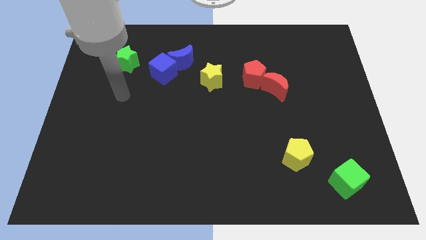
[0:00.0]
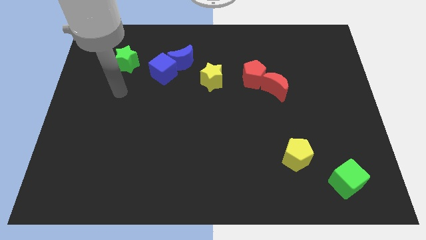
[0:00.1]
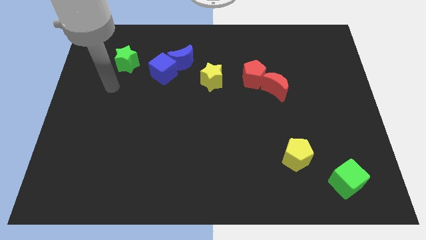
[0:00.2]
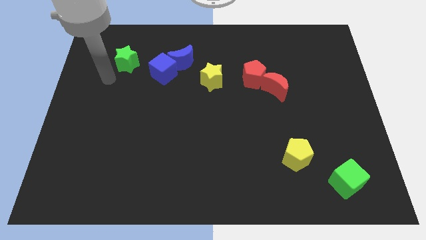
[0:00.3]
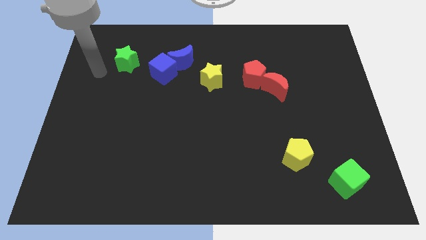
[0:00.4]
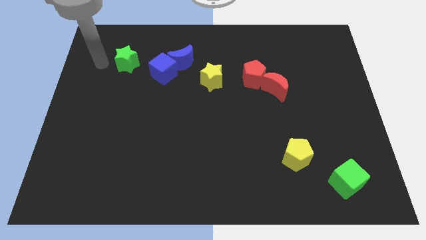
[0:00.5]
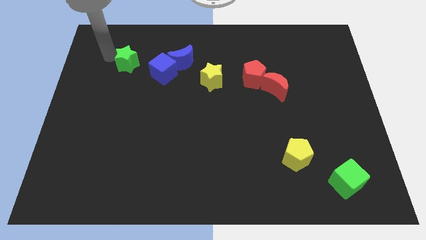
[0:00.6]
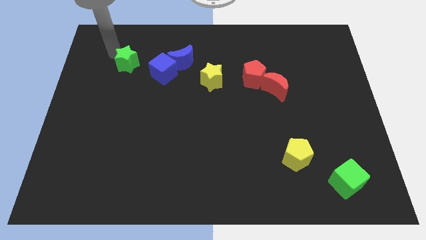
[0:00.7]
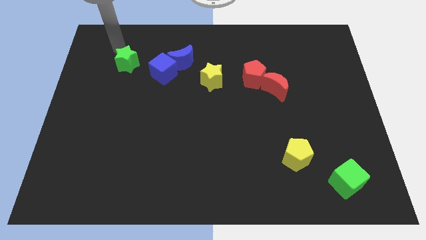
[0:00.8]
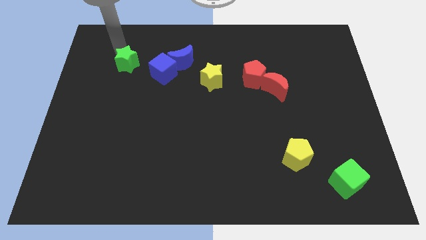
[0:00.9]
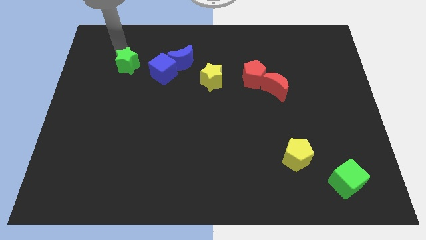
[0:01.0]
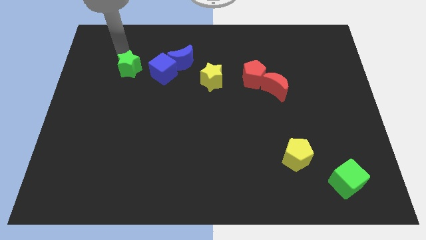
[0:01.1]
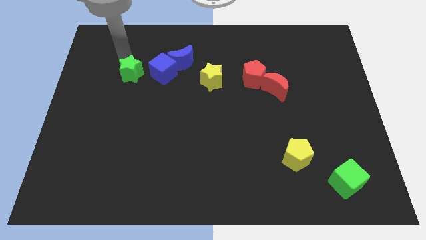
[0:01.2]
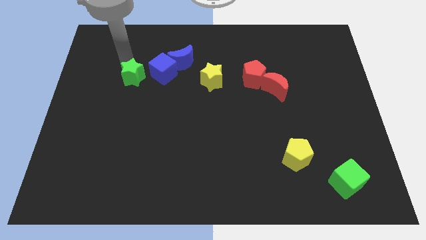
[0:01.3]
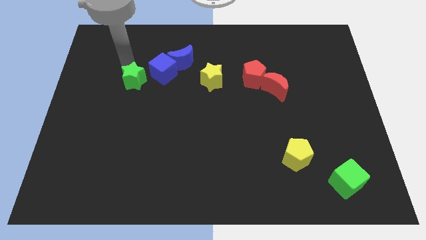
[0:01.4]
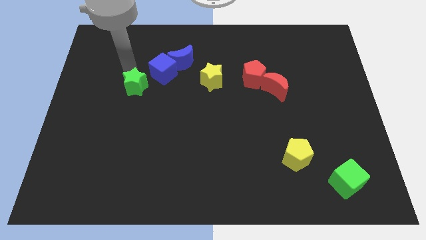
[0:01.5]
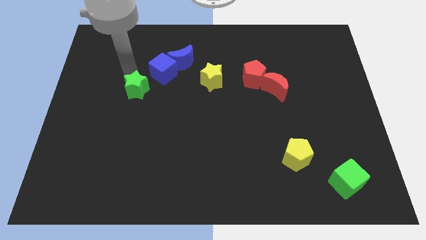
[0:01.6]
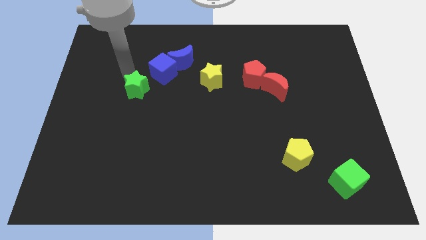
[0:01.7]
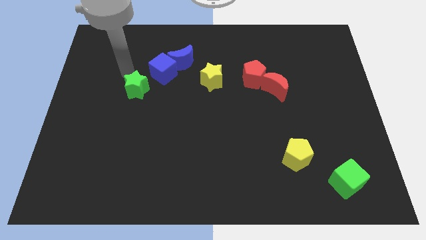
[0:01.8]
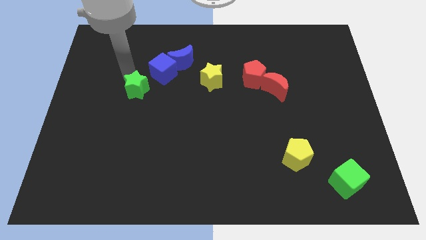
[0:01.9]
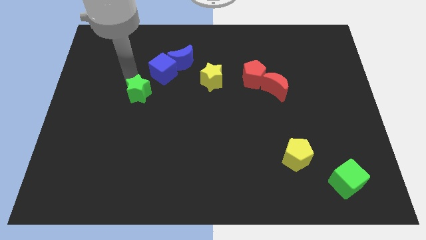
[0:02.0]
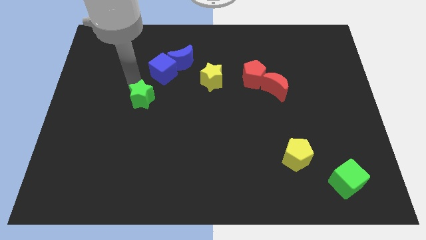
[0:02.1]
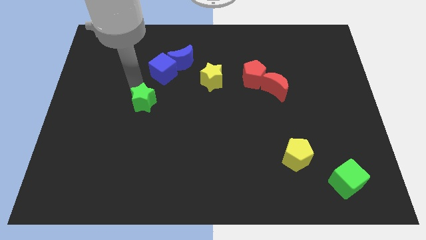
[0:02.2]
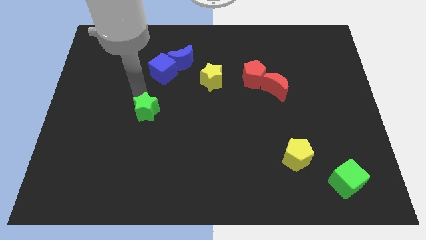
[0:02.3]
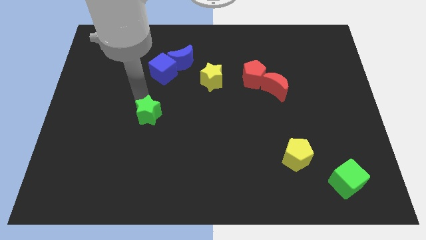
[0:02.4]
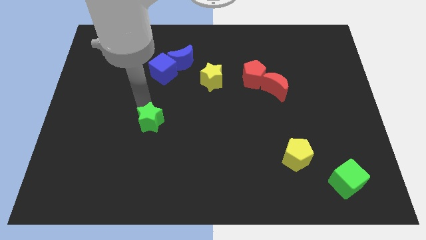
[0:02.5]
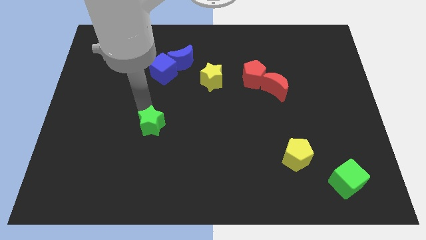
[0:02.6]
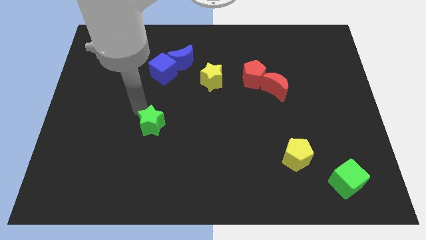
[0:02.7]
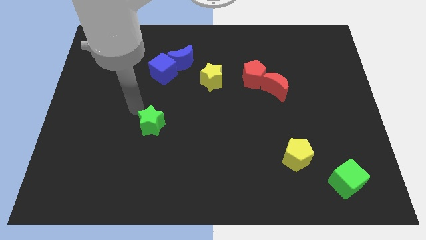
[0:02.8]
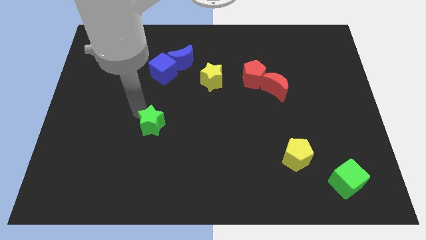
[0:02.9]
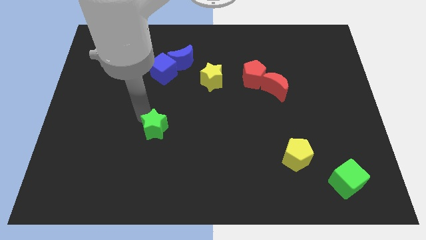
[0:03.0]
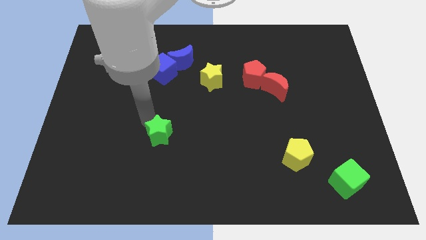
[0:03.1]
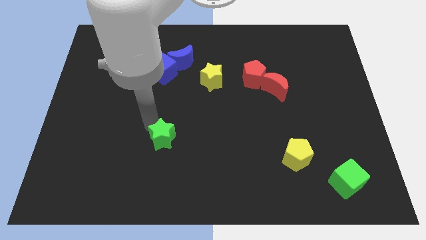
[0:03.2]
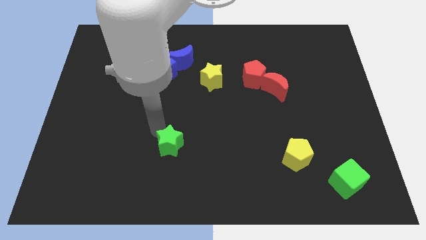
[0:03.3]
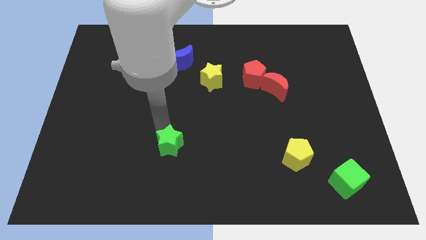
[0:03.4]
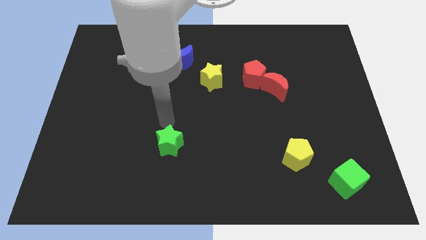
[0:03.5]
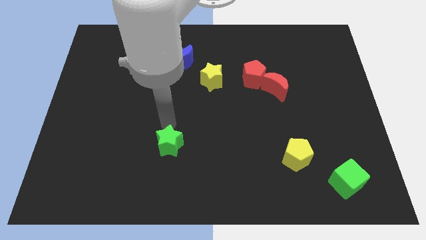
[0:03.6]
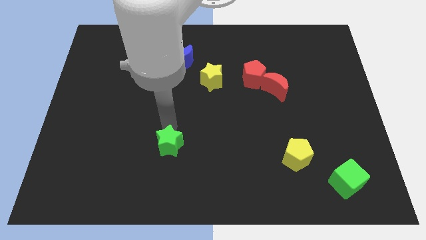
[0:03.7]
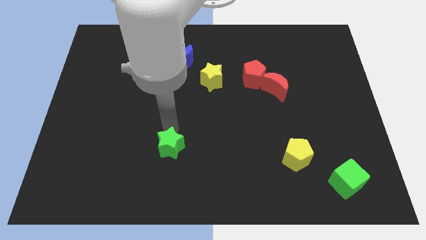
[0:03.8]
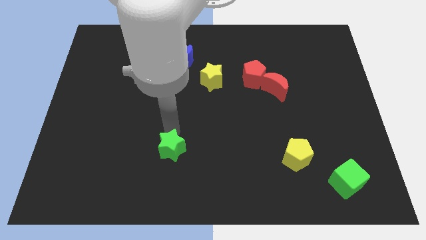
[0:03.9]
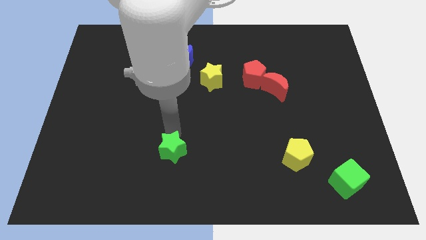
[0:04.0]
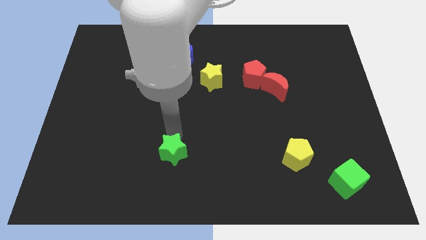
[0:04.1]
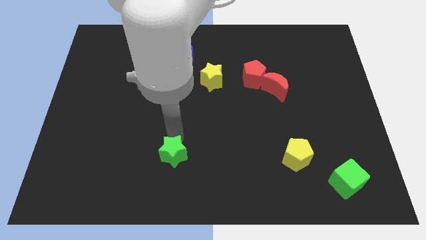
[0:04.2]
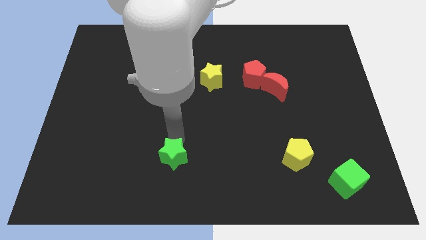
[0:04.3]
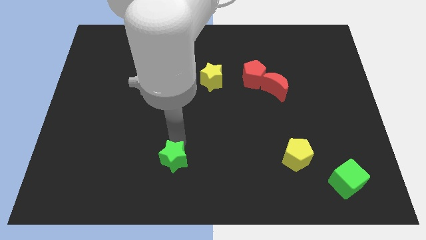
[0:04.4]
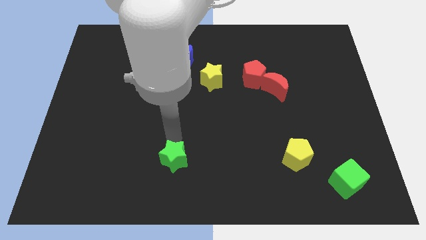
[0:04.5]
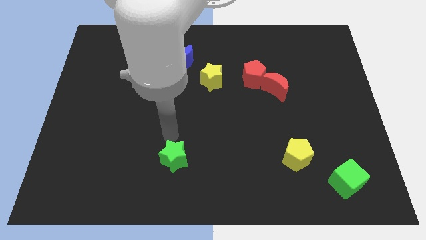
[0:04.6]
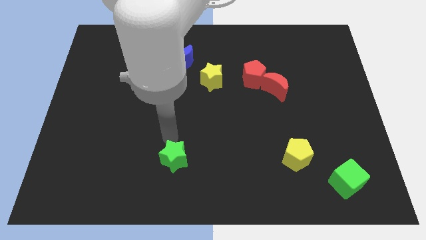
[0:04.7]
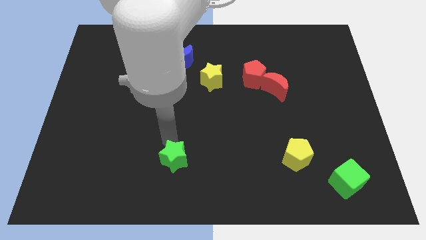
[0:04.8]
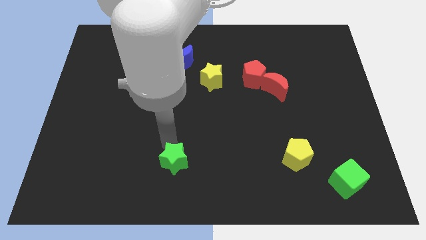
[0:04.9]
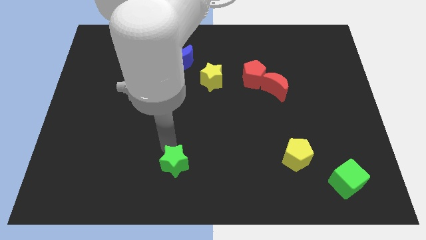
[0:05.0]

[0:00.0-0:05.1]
move the green star to the bottom side

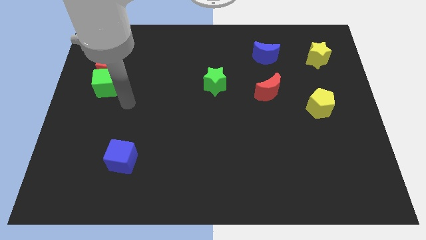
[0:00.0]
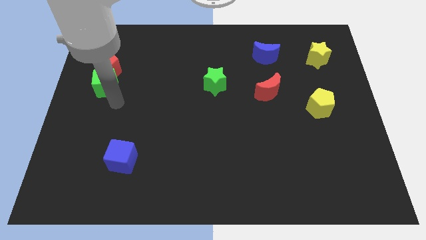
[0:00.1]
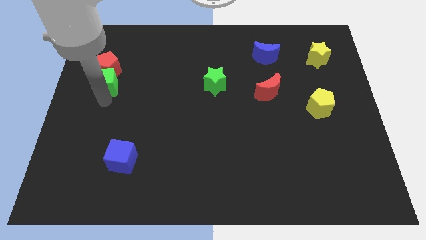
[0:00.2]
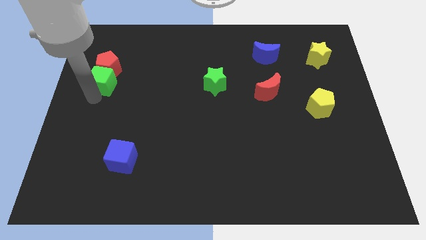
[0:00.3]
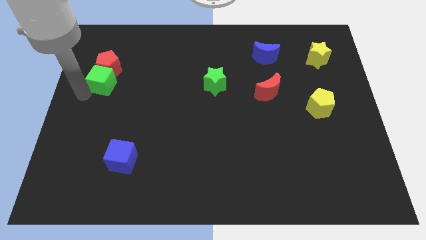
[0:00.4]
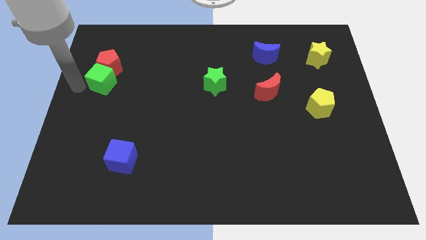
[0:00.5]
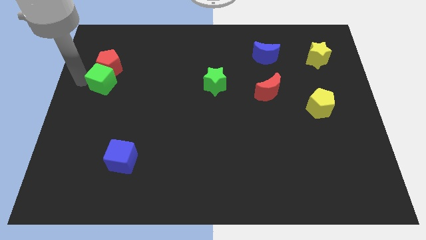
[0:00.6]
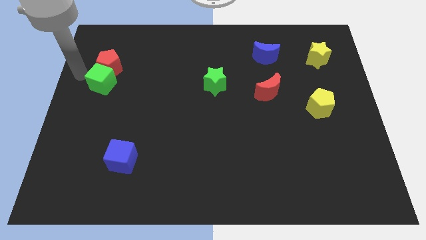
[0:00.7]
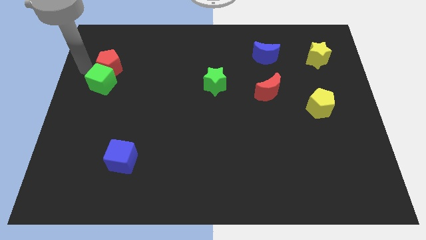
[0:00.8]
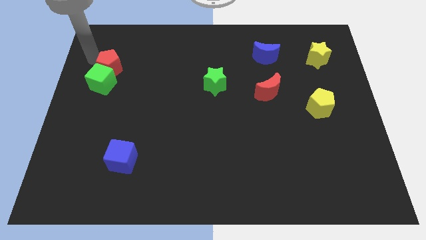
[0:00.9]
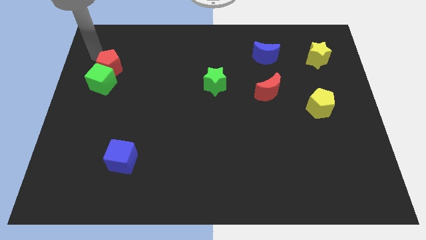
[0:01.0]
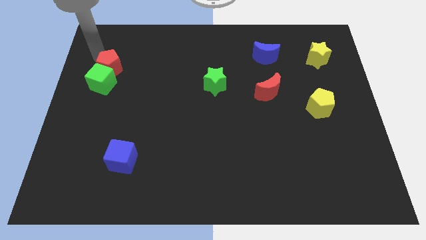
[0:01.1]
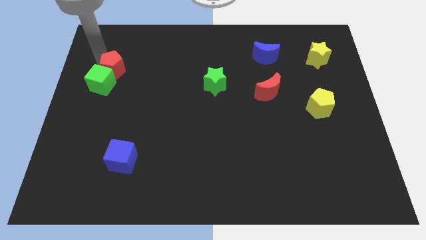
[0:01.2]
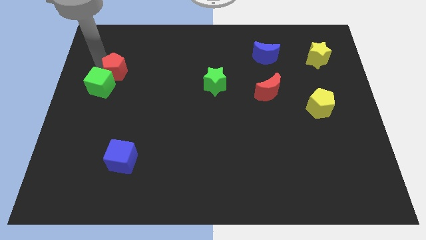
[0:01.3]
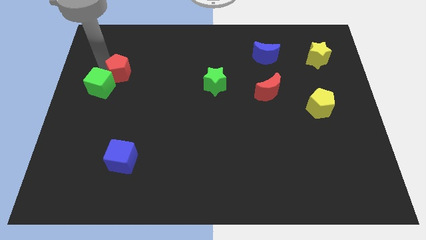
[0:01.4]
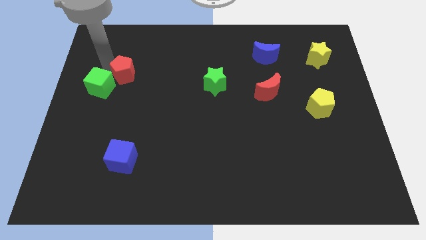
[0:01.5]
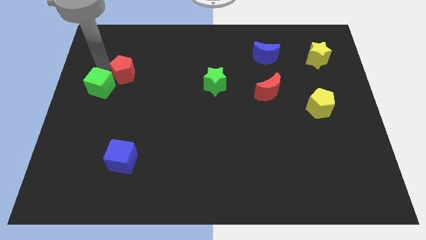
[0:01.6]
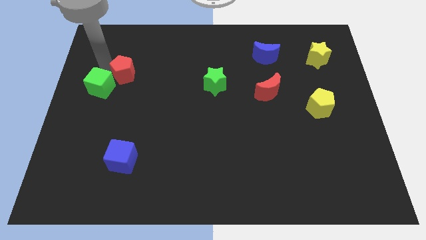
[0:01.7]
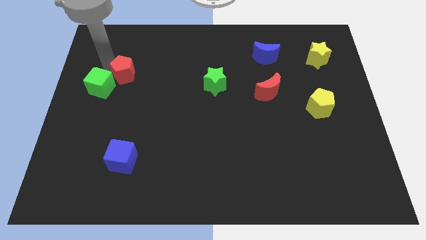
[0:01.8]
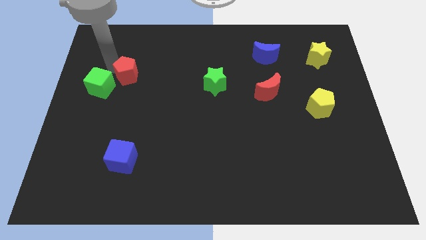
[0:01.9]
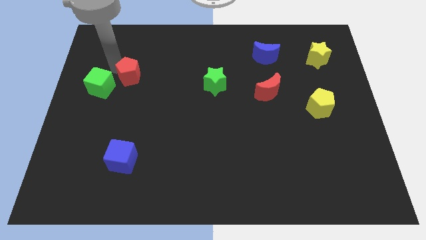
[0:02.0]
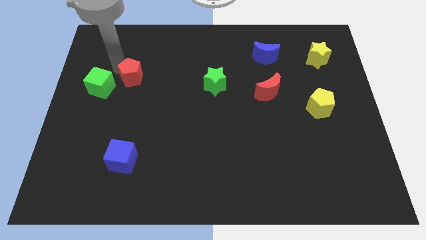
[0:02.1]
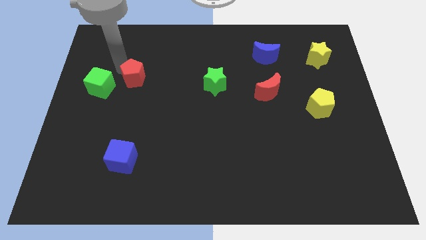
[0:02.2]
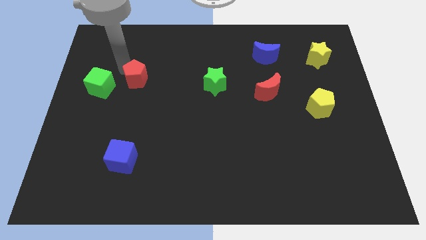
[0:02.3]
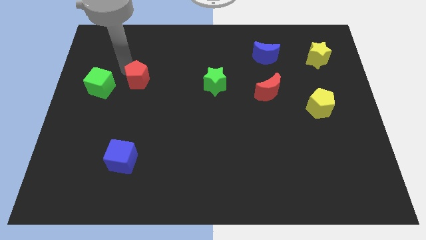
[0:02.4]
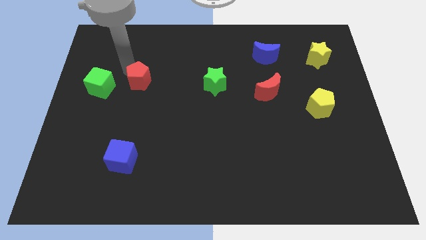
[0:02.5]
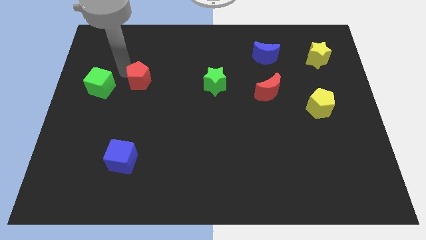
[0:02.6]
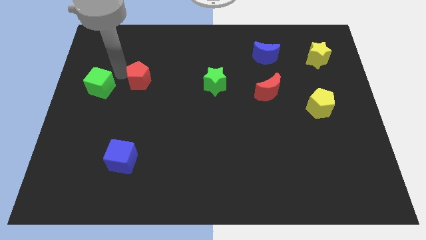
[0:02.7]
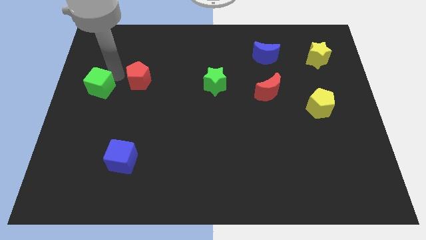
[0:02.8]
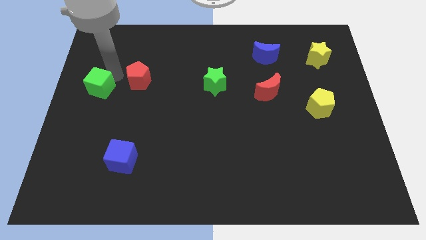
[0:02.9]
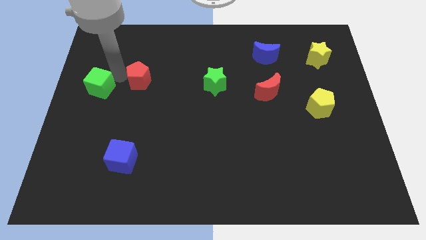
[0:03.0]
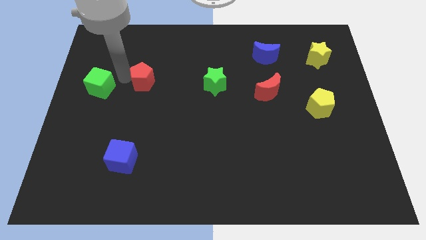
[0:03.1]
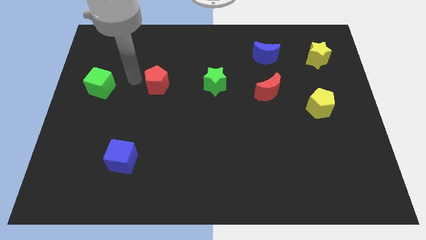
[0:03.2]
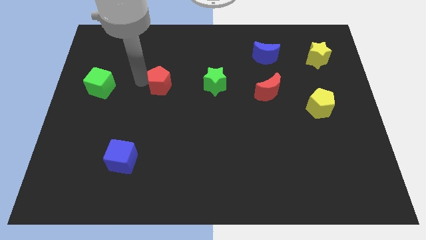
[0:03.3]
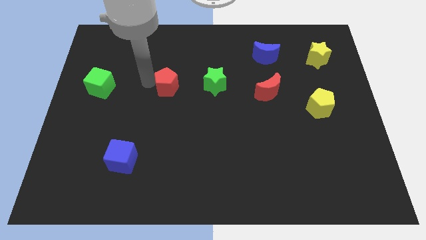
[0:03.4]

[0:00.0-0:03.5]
push the red pentagon to the center of the board
